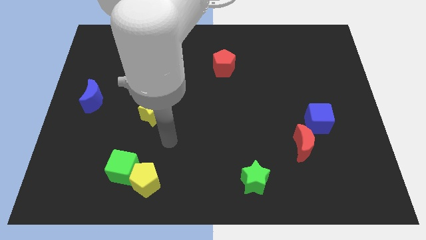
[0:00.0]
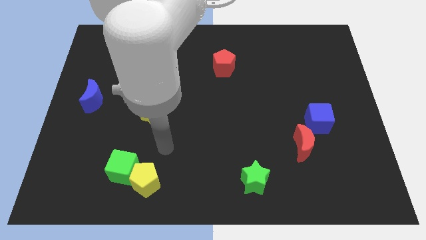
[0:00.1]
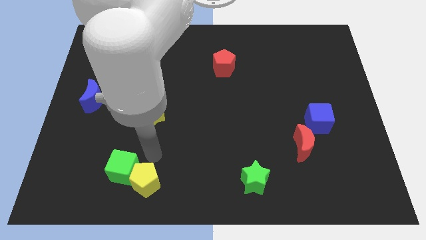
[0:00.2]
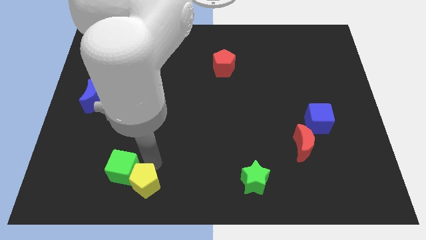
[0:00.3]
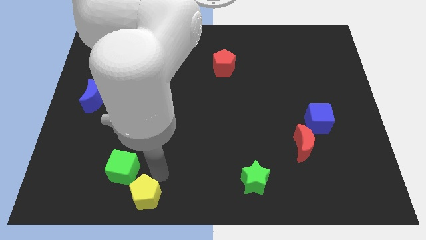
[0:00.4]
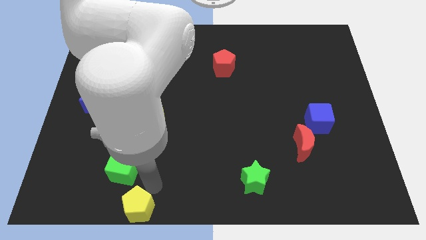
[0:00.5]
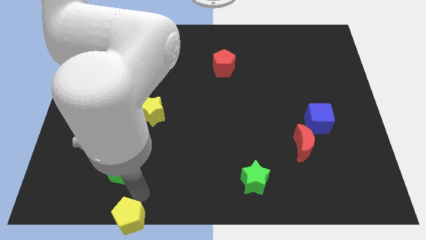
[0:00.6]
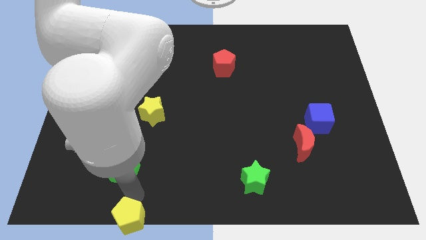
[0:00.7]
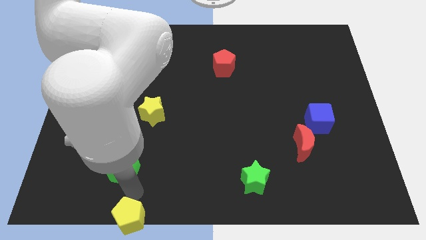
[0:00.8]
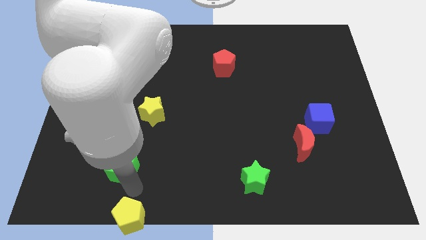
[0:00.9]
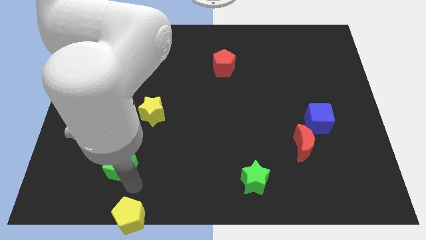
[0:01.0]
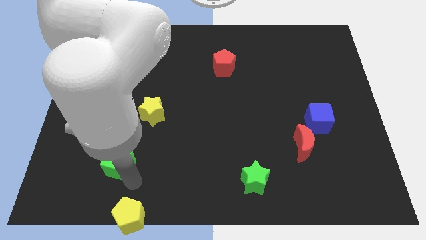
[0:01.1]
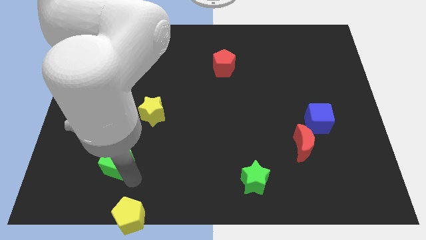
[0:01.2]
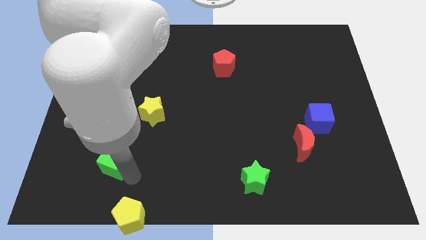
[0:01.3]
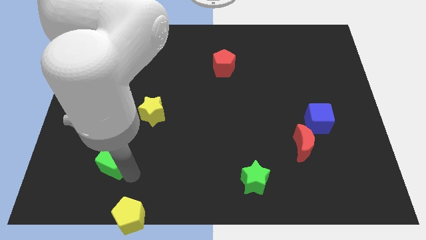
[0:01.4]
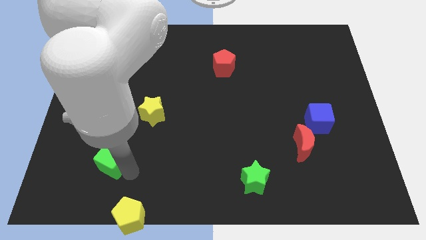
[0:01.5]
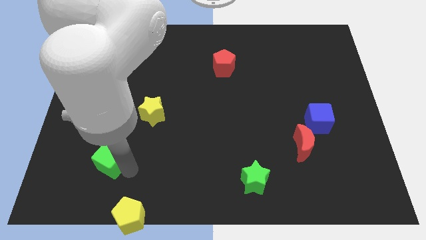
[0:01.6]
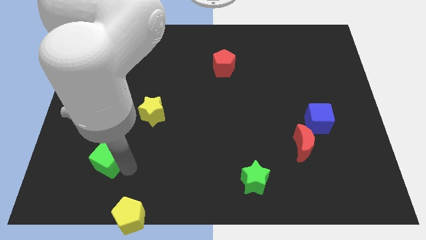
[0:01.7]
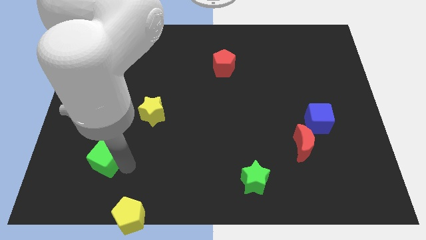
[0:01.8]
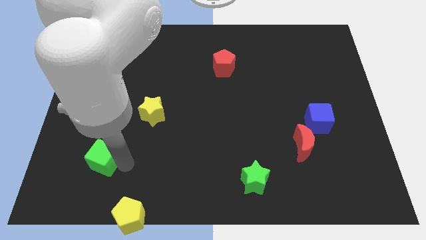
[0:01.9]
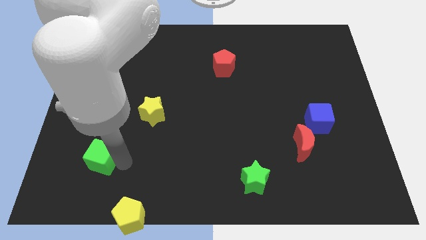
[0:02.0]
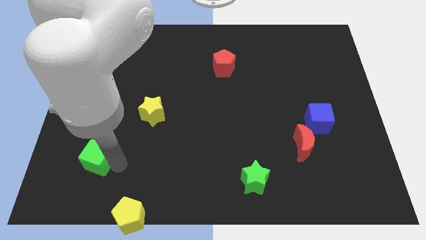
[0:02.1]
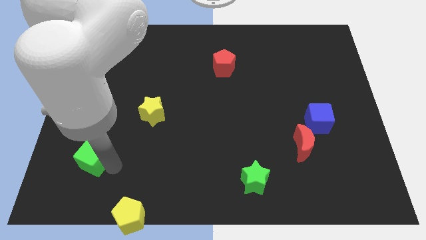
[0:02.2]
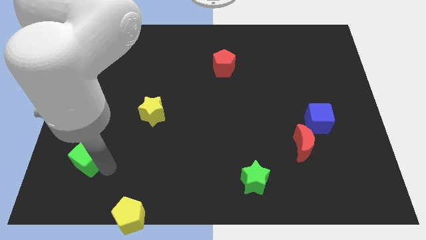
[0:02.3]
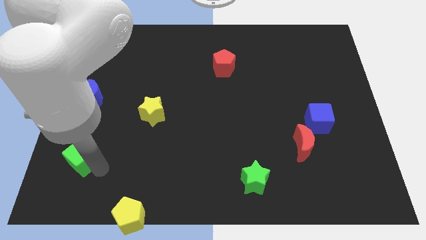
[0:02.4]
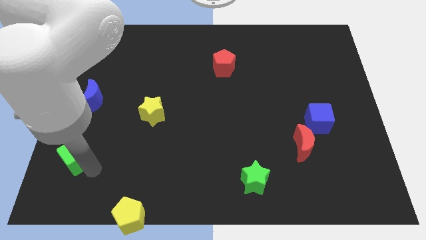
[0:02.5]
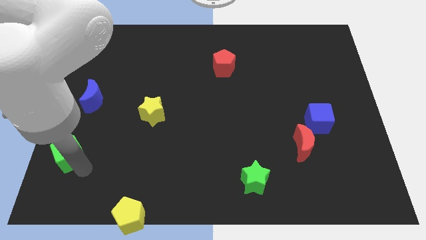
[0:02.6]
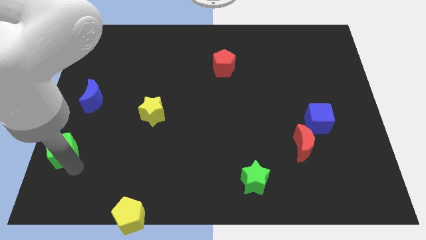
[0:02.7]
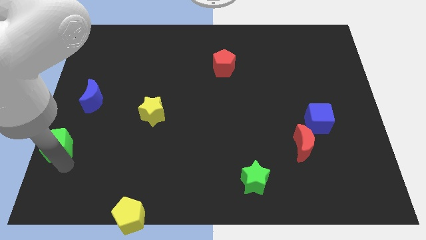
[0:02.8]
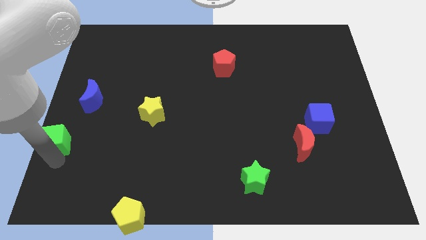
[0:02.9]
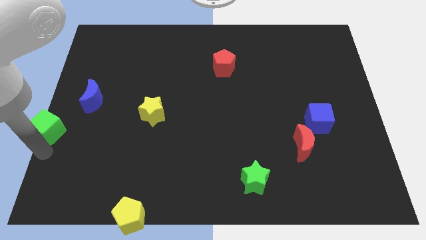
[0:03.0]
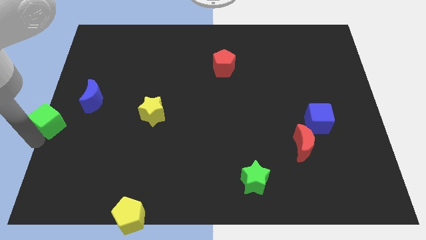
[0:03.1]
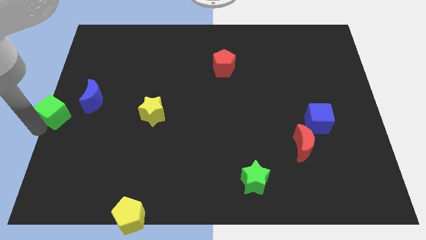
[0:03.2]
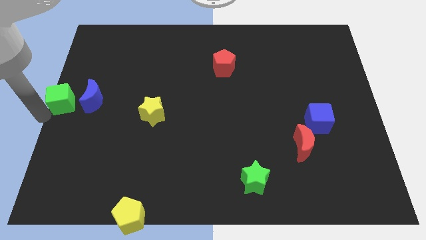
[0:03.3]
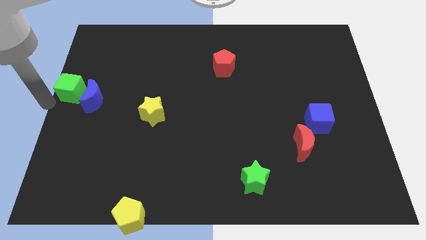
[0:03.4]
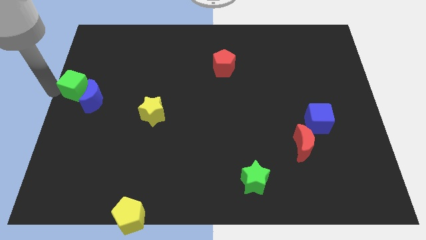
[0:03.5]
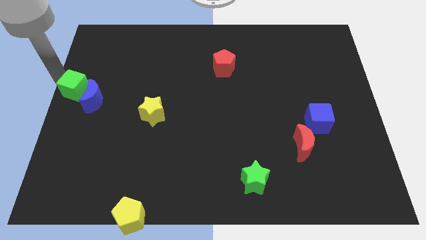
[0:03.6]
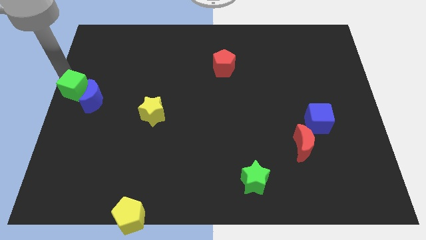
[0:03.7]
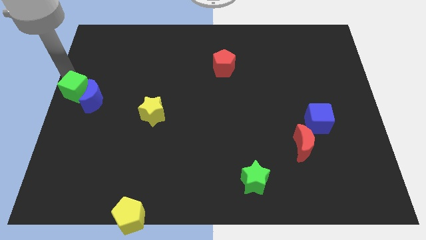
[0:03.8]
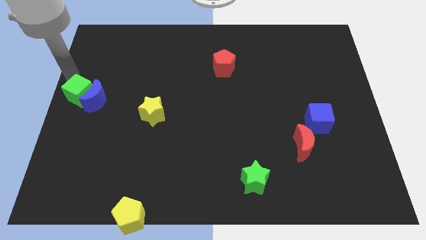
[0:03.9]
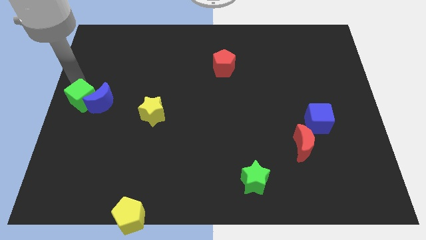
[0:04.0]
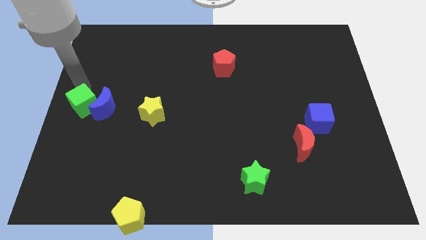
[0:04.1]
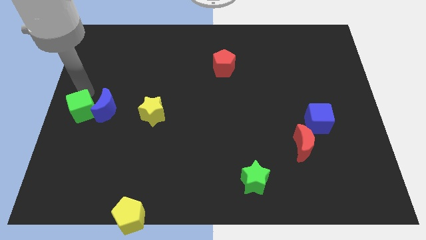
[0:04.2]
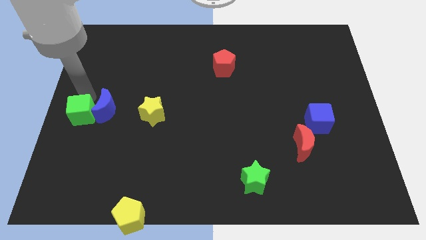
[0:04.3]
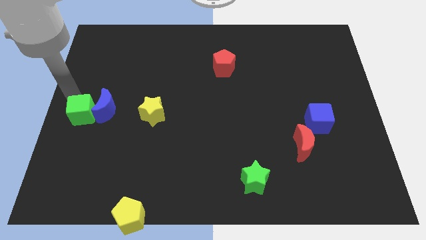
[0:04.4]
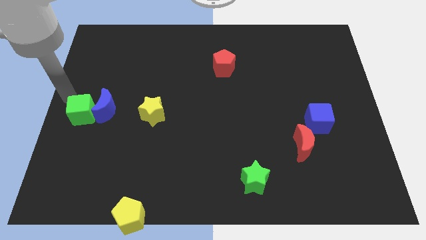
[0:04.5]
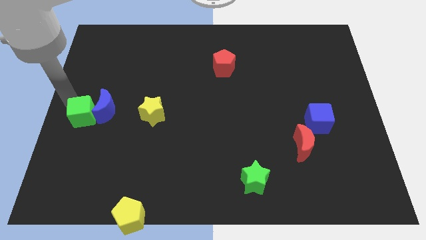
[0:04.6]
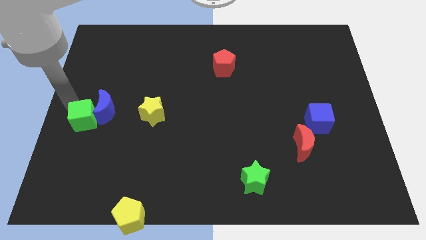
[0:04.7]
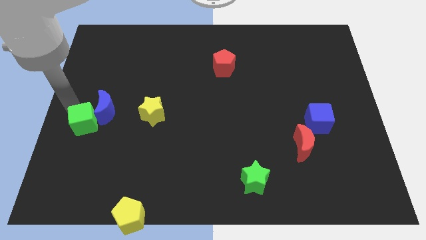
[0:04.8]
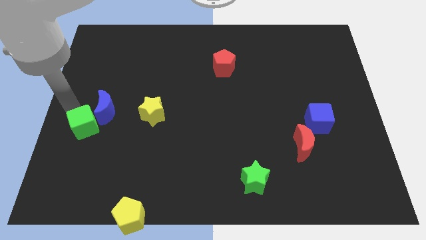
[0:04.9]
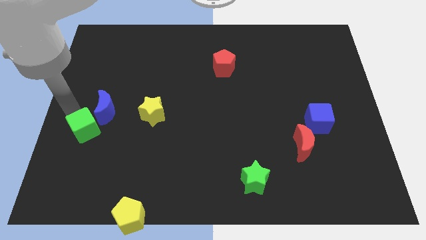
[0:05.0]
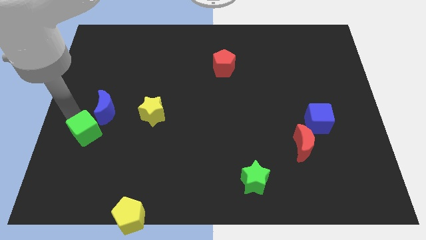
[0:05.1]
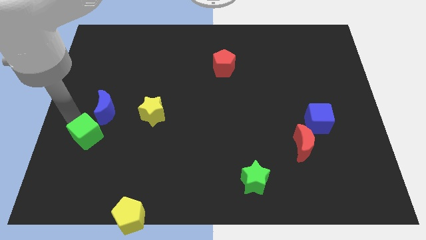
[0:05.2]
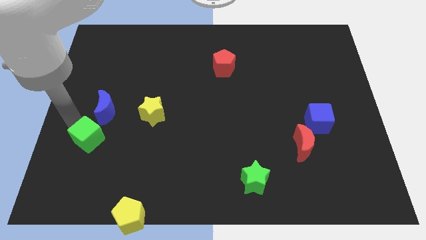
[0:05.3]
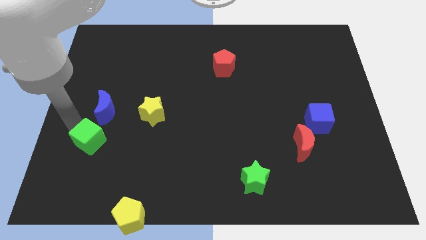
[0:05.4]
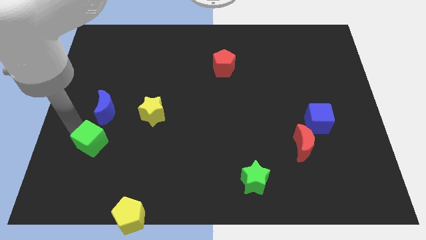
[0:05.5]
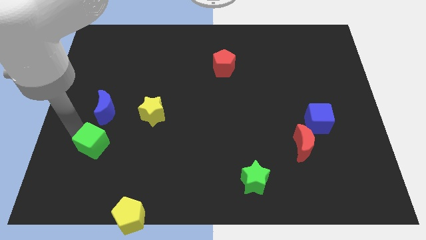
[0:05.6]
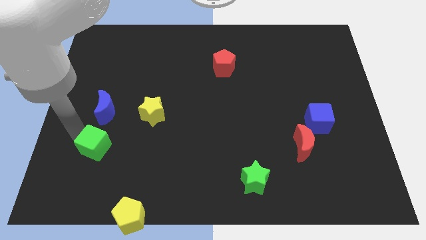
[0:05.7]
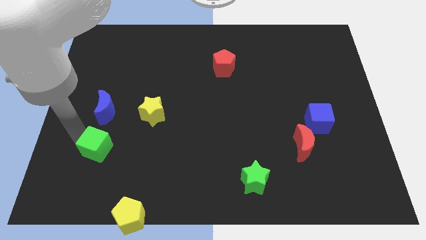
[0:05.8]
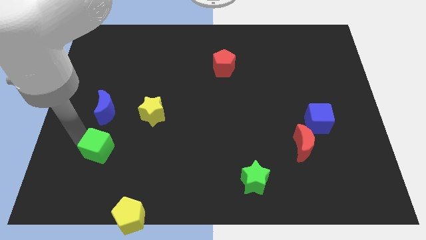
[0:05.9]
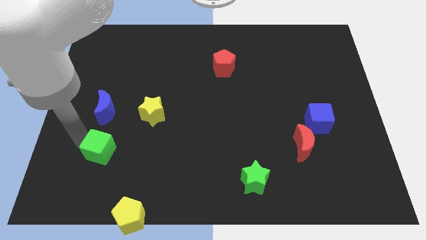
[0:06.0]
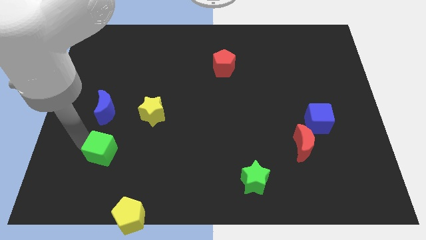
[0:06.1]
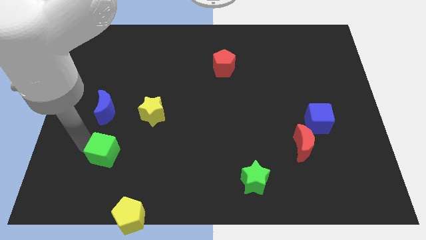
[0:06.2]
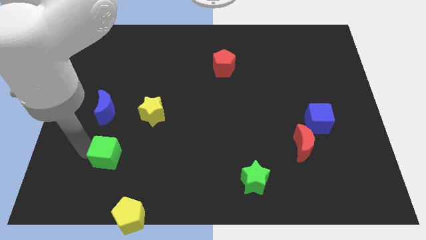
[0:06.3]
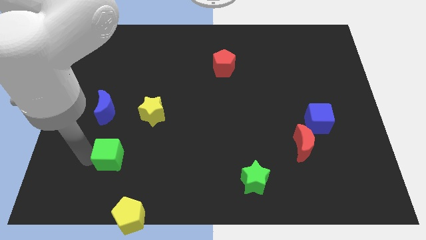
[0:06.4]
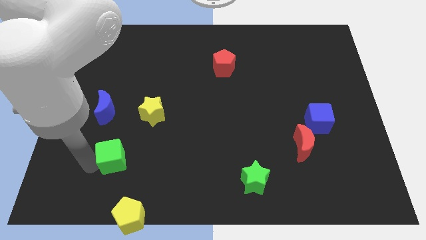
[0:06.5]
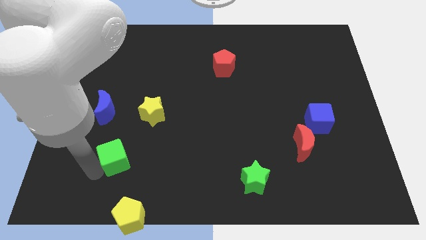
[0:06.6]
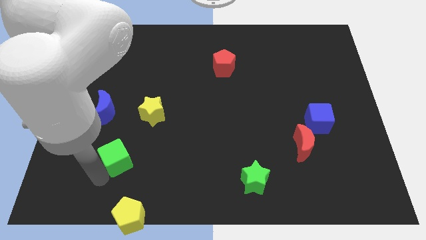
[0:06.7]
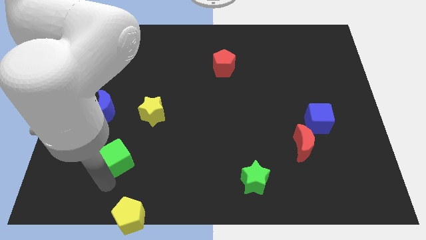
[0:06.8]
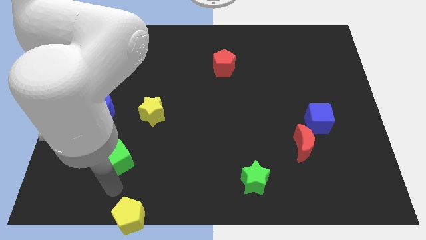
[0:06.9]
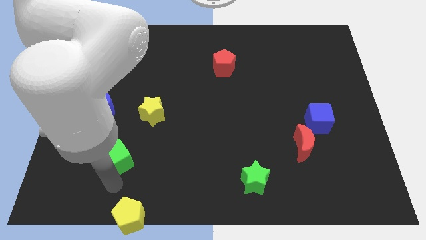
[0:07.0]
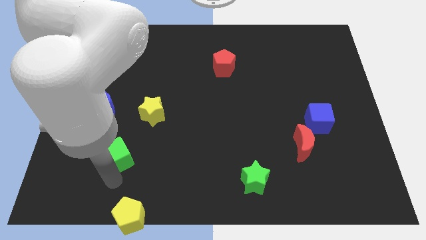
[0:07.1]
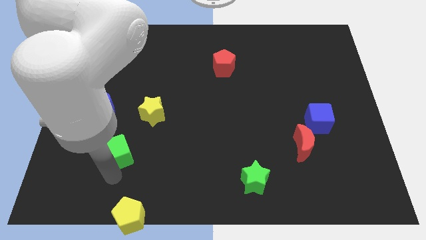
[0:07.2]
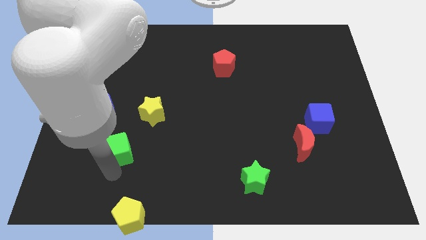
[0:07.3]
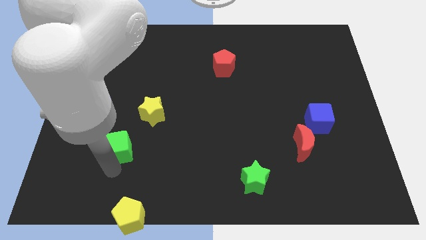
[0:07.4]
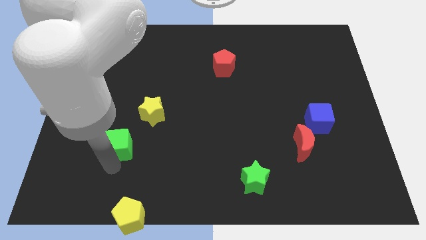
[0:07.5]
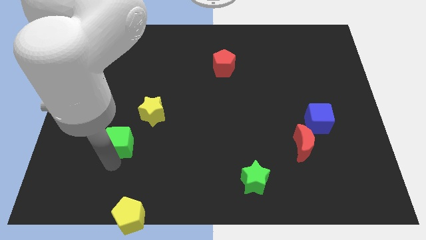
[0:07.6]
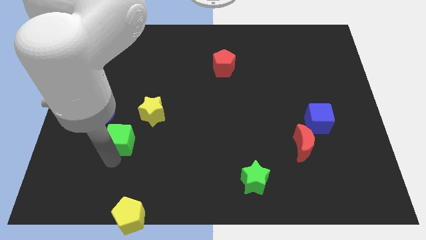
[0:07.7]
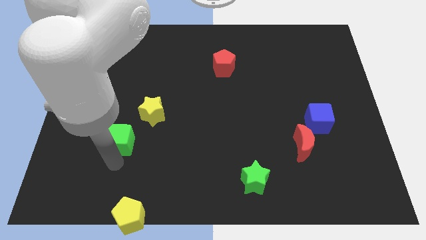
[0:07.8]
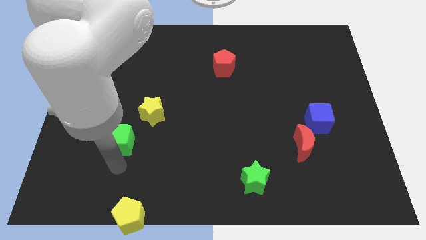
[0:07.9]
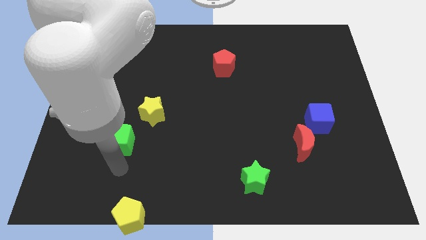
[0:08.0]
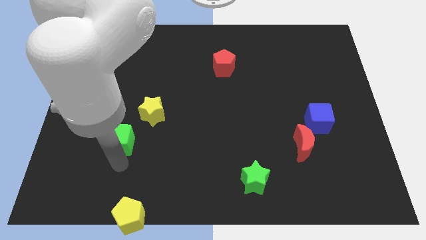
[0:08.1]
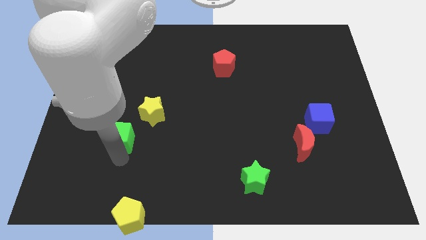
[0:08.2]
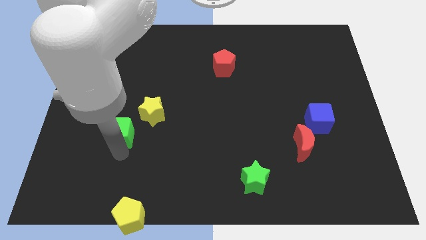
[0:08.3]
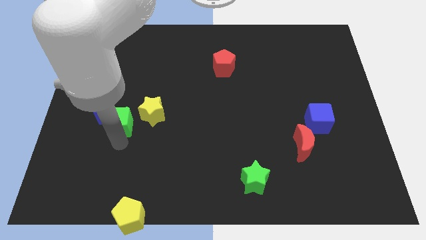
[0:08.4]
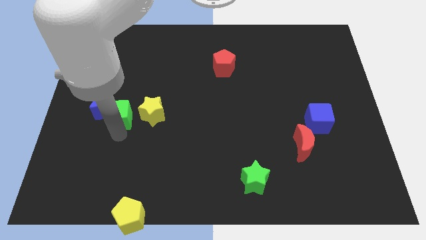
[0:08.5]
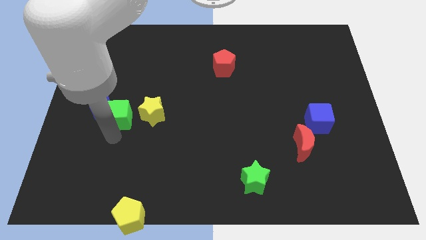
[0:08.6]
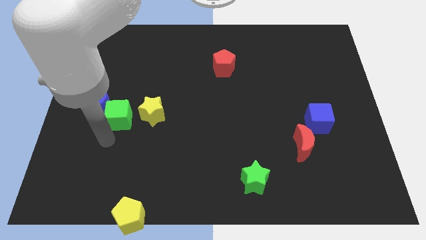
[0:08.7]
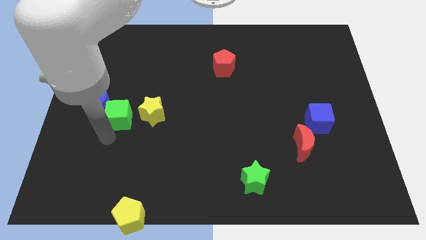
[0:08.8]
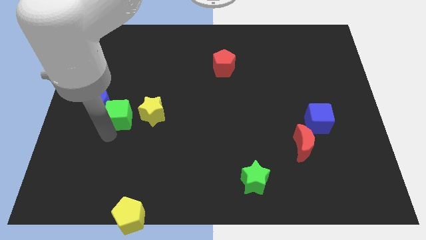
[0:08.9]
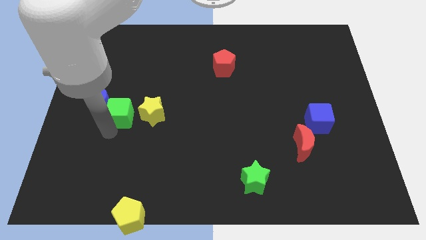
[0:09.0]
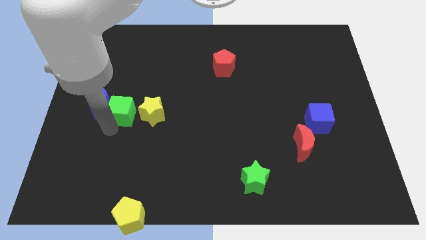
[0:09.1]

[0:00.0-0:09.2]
slide the green cube to the top left side of the yellow star
